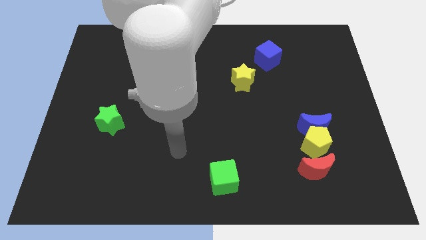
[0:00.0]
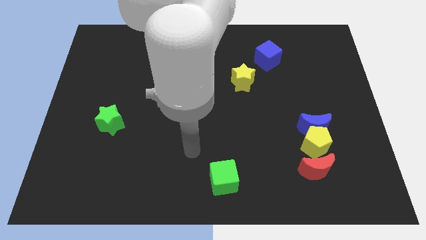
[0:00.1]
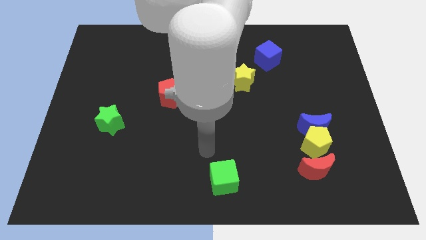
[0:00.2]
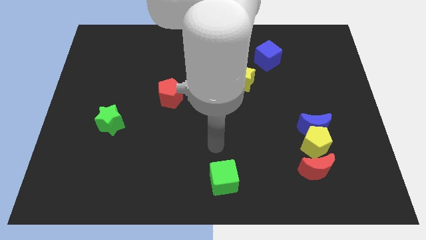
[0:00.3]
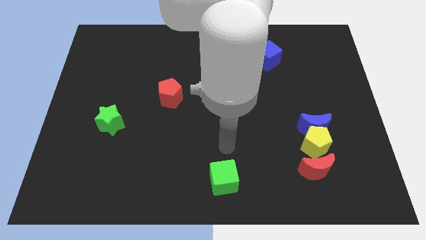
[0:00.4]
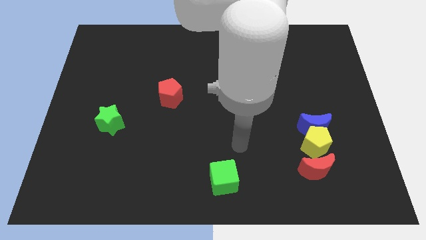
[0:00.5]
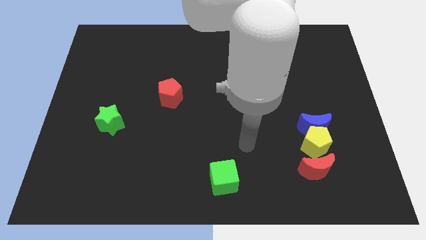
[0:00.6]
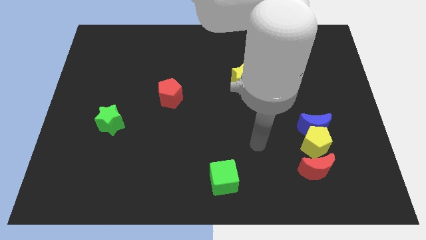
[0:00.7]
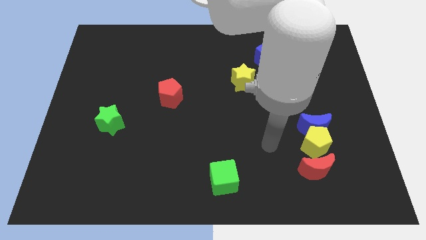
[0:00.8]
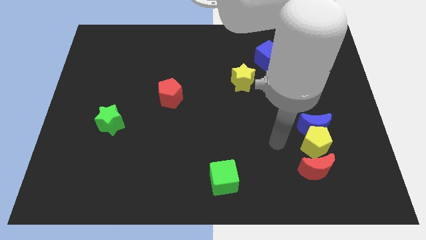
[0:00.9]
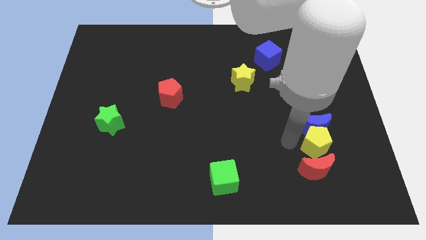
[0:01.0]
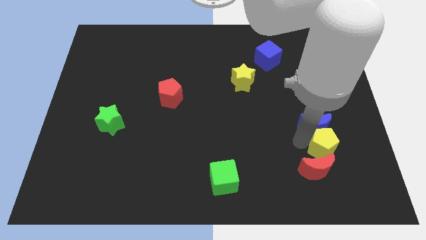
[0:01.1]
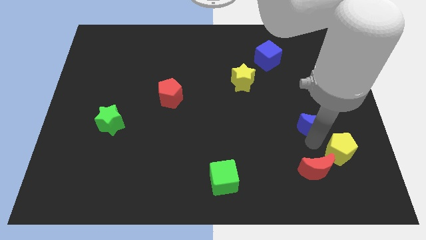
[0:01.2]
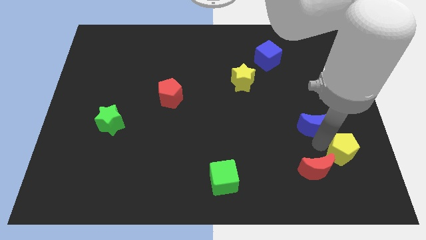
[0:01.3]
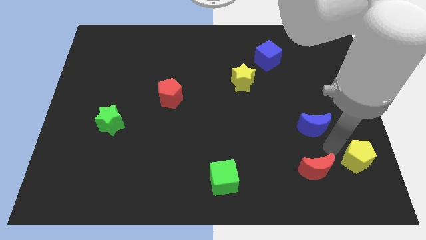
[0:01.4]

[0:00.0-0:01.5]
separate the blue moon from the yellow pentagon

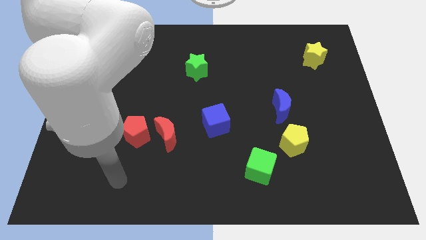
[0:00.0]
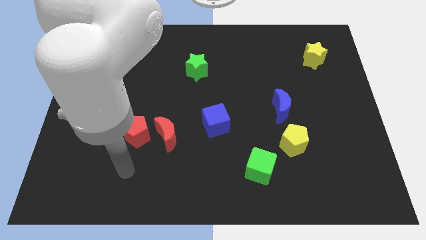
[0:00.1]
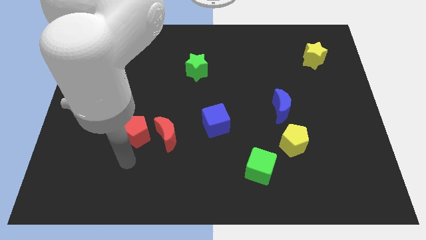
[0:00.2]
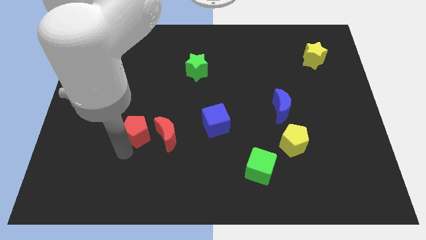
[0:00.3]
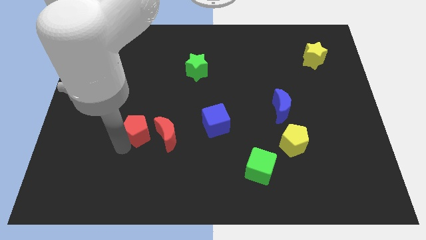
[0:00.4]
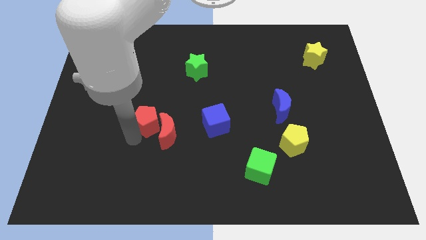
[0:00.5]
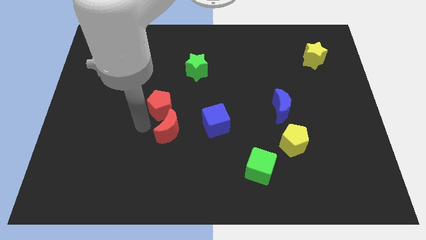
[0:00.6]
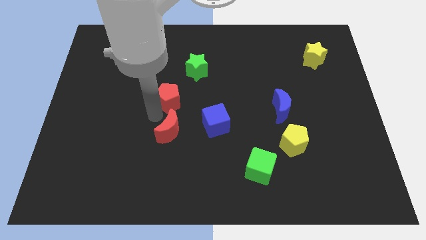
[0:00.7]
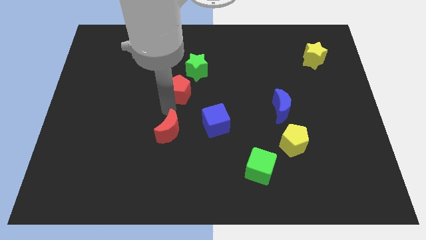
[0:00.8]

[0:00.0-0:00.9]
pull the red moon apart from the red pentagon

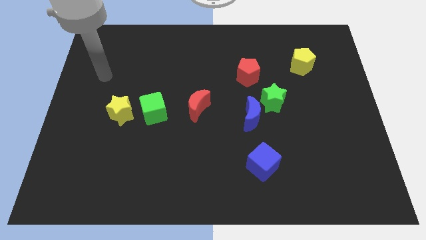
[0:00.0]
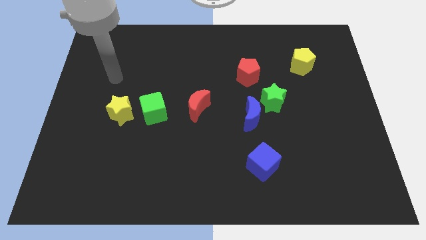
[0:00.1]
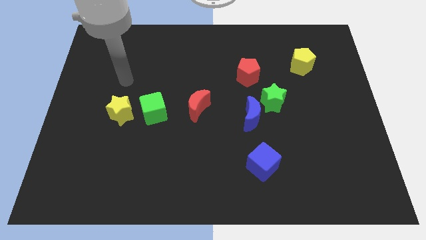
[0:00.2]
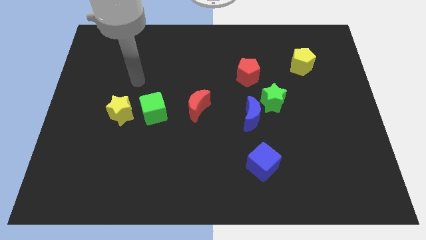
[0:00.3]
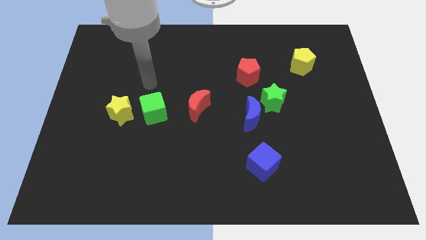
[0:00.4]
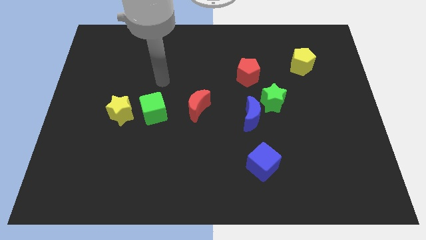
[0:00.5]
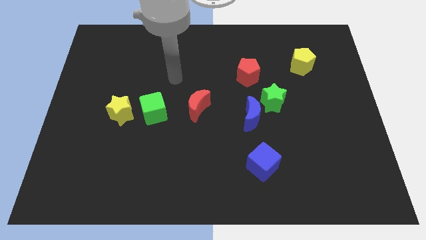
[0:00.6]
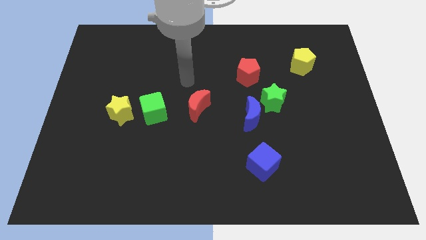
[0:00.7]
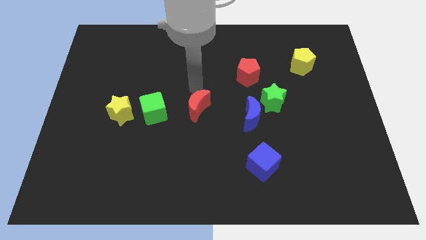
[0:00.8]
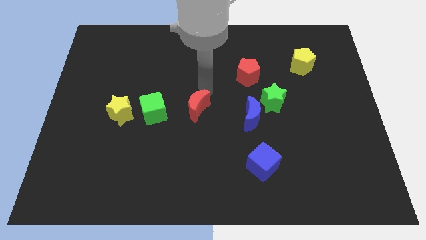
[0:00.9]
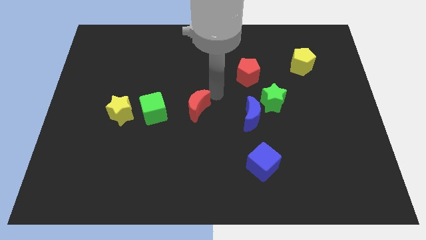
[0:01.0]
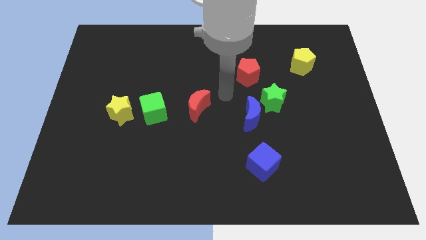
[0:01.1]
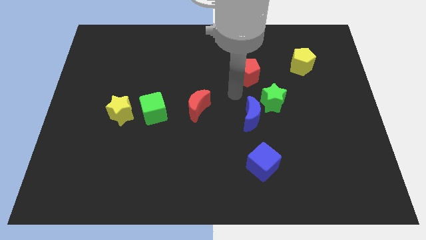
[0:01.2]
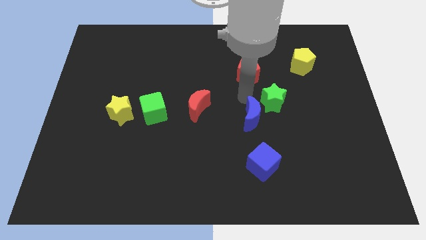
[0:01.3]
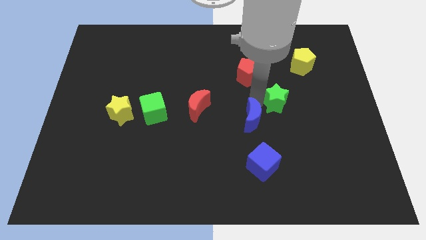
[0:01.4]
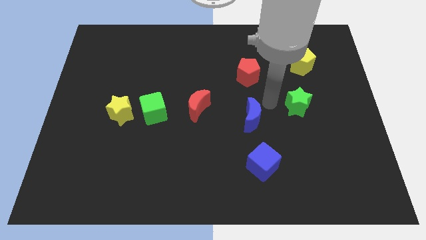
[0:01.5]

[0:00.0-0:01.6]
separate the blue moon from the green star

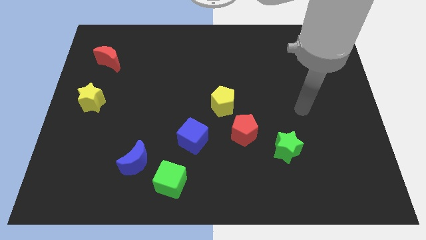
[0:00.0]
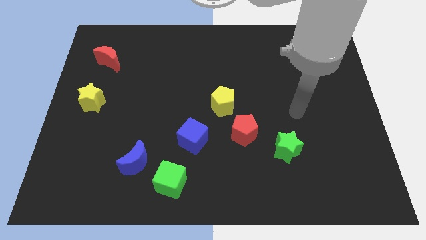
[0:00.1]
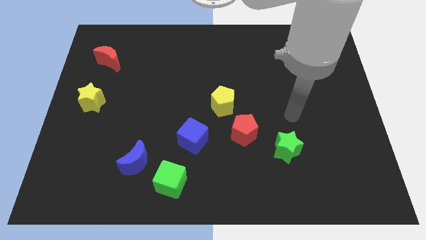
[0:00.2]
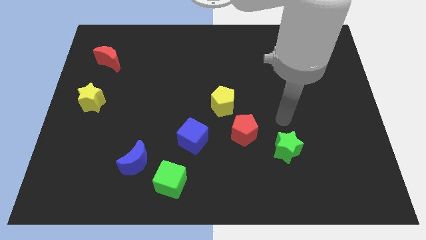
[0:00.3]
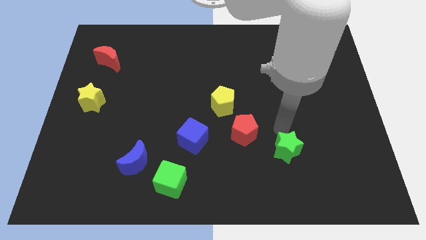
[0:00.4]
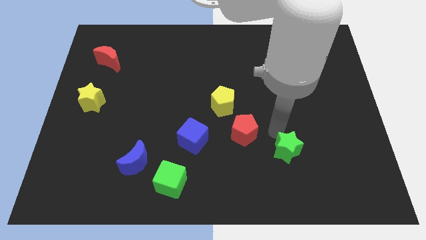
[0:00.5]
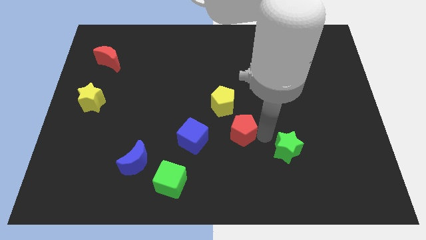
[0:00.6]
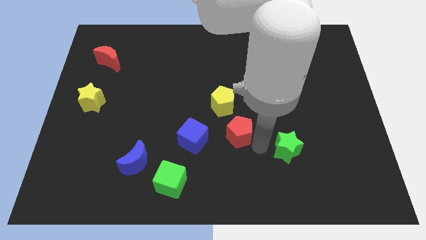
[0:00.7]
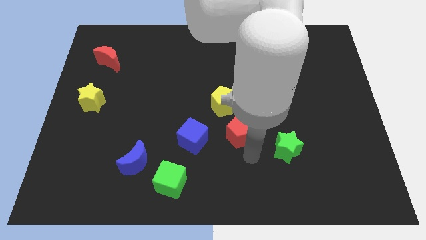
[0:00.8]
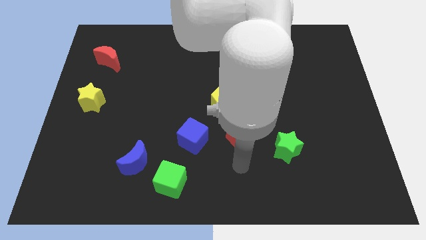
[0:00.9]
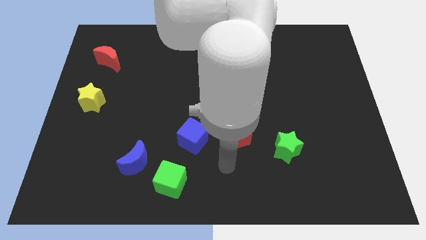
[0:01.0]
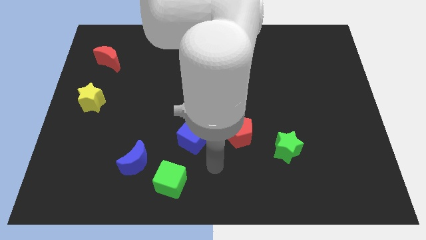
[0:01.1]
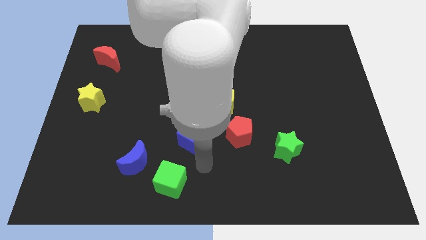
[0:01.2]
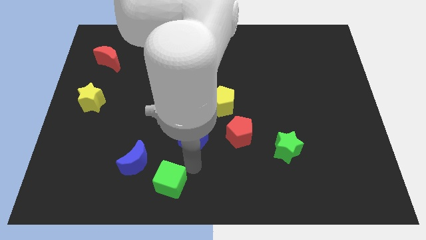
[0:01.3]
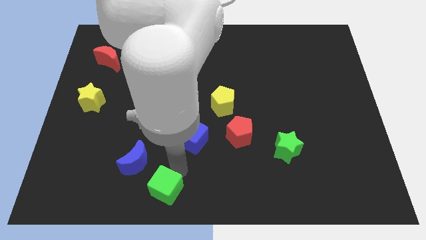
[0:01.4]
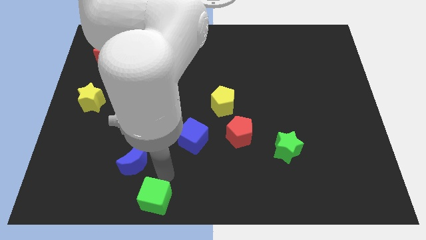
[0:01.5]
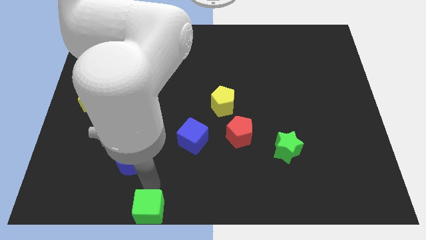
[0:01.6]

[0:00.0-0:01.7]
move the blue moon away from the green cube

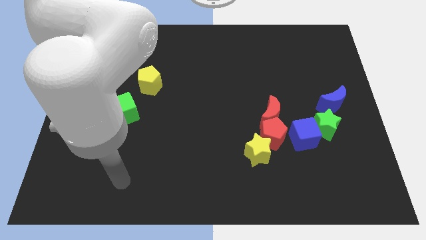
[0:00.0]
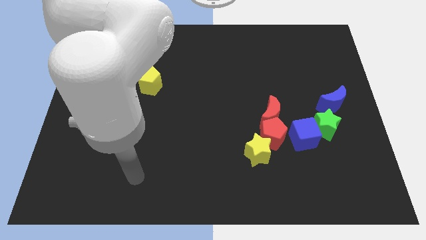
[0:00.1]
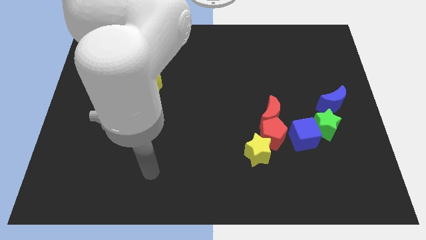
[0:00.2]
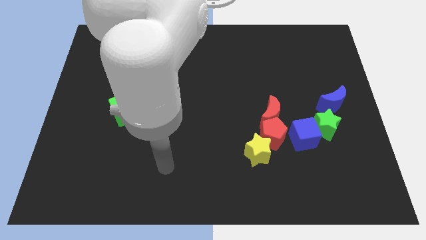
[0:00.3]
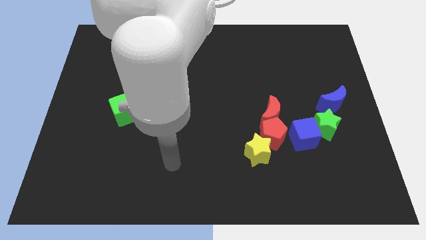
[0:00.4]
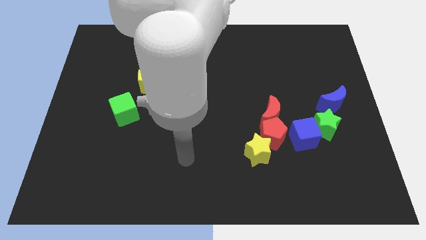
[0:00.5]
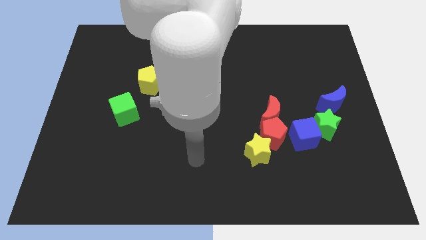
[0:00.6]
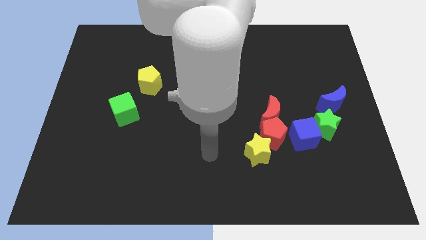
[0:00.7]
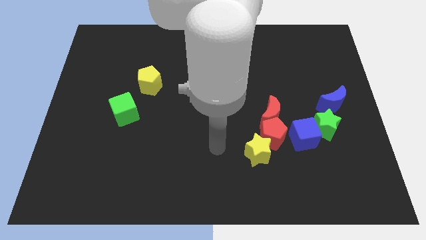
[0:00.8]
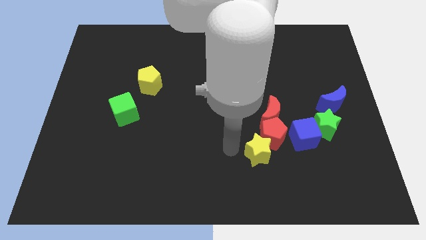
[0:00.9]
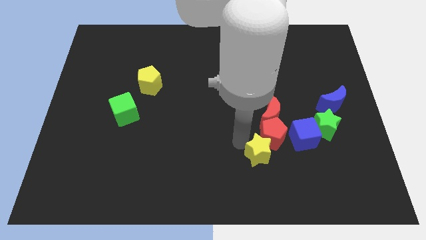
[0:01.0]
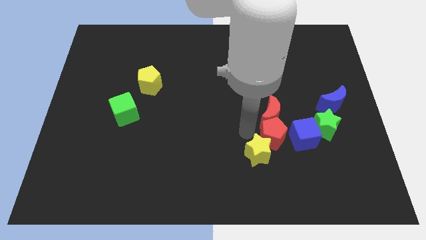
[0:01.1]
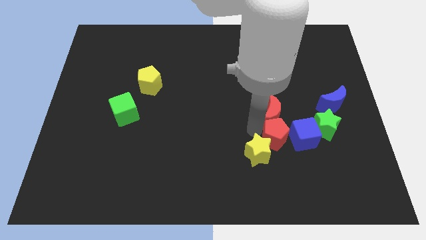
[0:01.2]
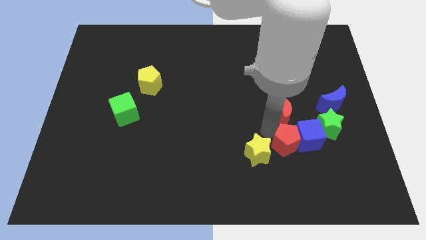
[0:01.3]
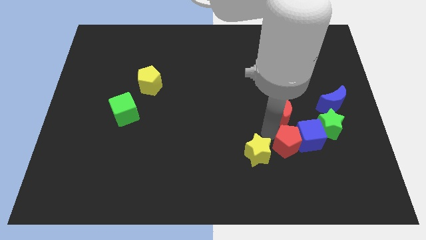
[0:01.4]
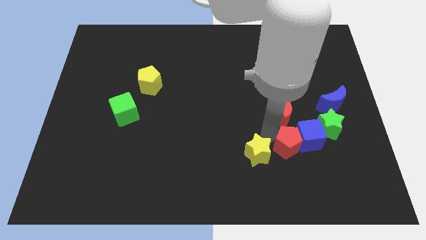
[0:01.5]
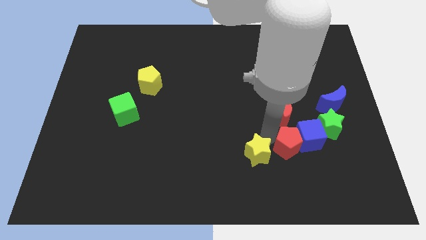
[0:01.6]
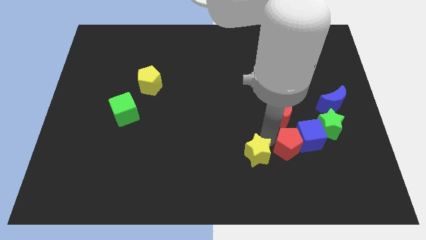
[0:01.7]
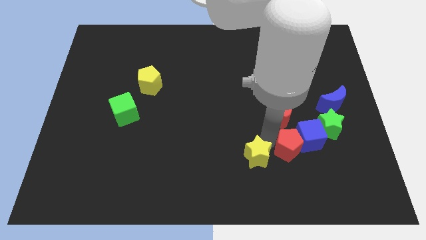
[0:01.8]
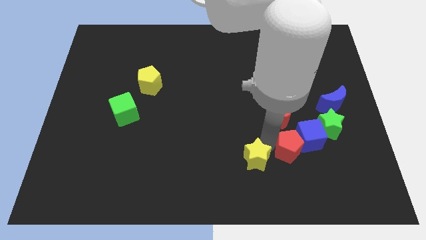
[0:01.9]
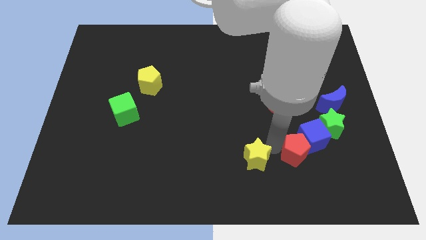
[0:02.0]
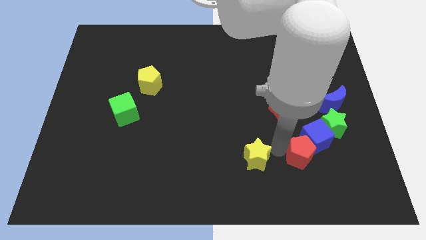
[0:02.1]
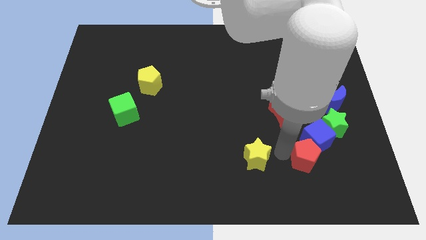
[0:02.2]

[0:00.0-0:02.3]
move the yellow star away from the red pentagon

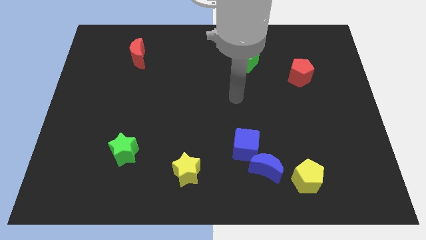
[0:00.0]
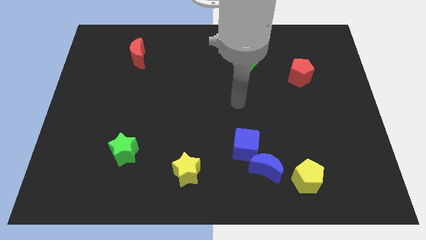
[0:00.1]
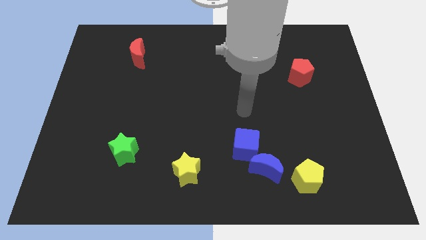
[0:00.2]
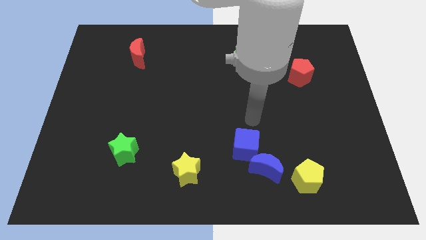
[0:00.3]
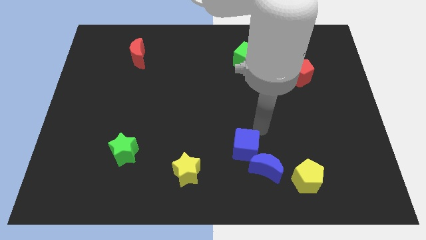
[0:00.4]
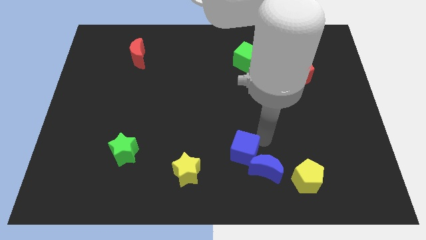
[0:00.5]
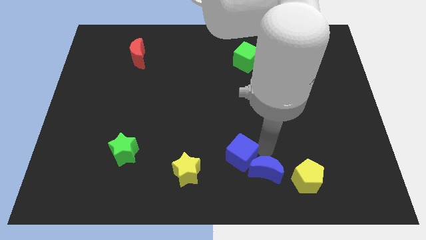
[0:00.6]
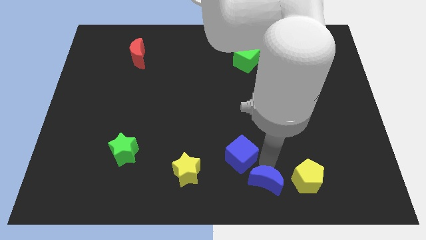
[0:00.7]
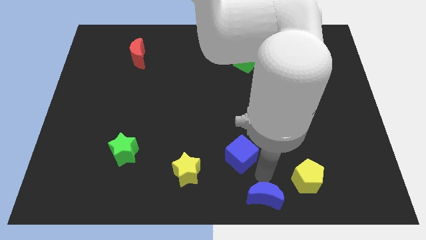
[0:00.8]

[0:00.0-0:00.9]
move the blue cube away from the blue moon

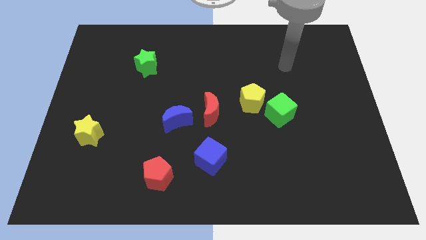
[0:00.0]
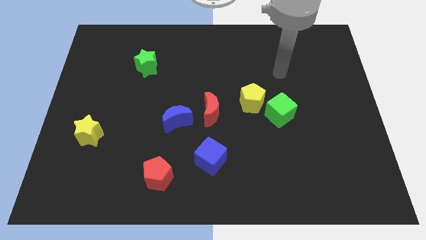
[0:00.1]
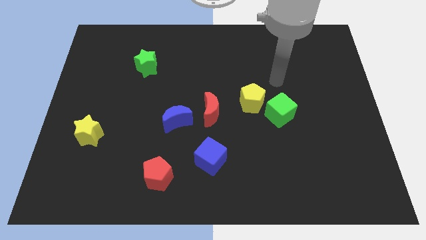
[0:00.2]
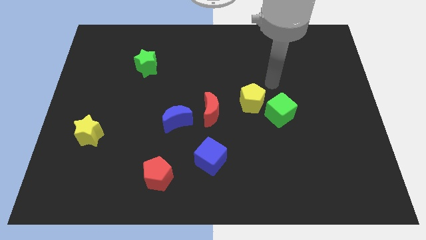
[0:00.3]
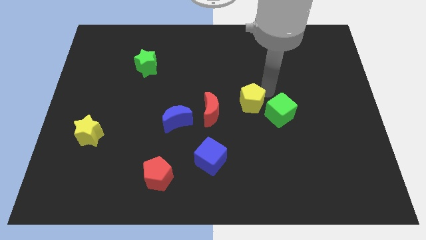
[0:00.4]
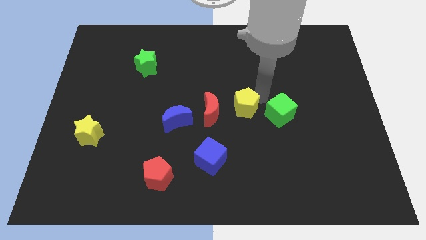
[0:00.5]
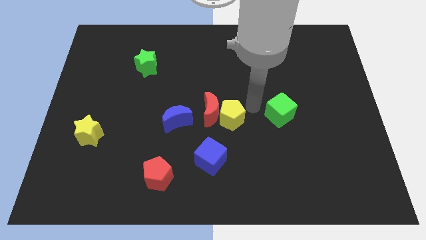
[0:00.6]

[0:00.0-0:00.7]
separate the green cube from the yellow pentagon
